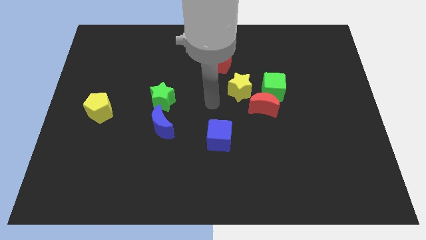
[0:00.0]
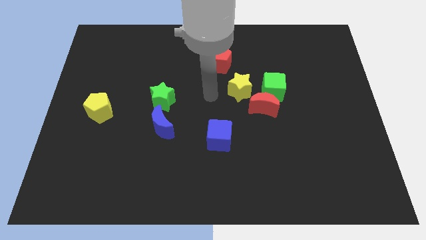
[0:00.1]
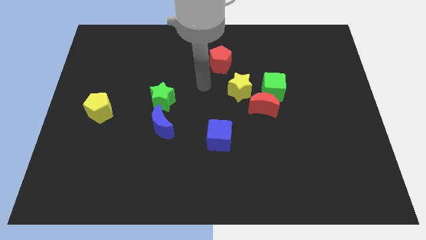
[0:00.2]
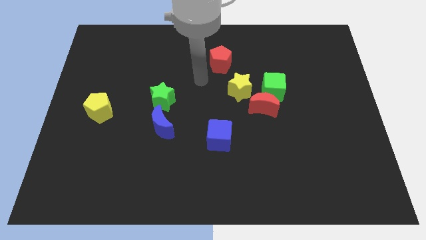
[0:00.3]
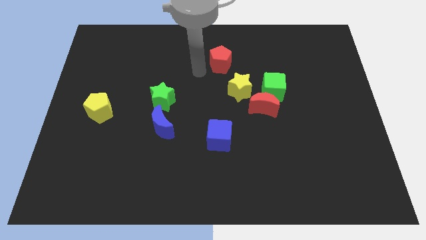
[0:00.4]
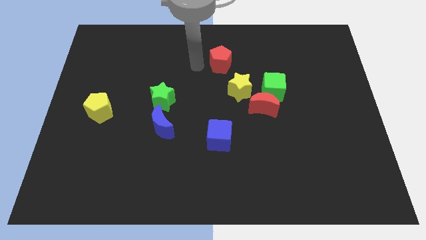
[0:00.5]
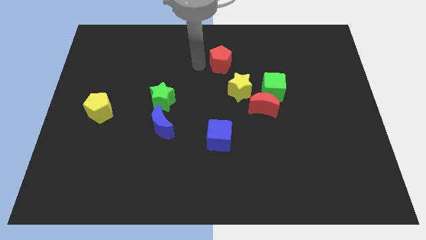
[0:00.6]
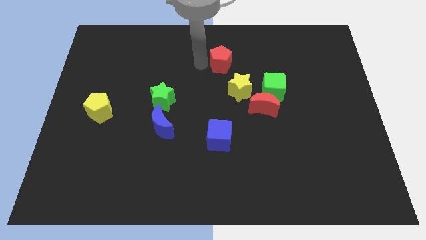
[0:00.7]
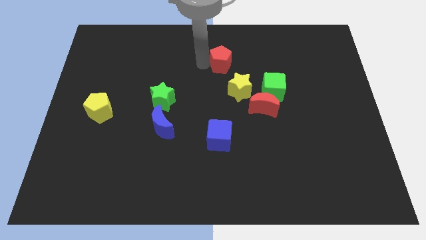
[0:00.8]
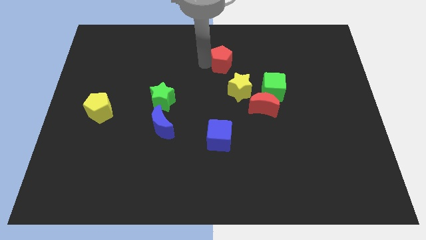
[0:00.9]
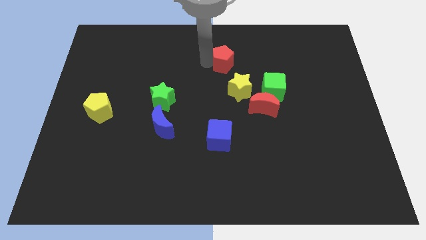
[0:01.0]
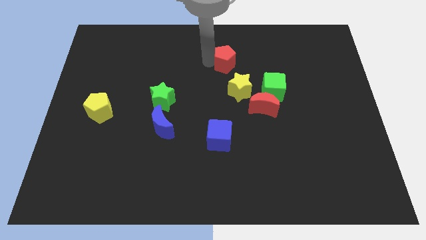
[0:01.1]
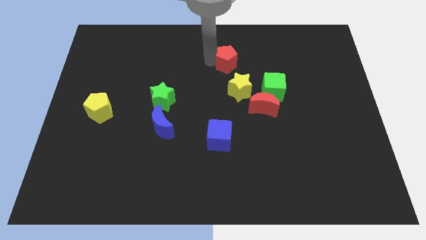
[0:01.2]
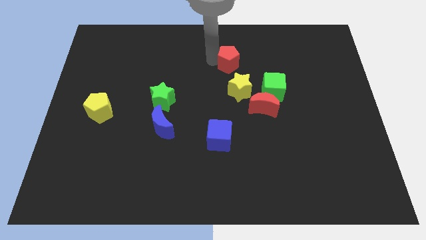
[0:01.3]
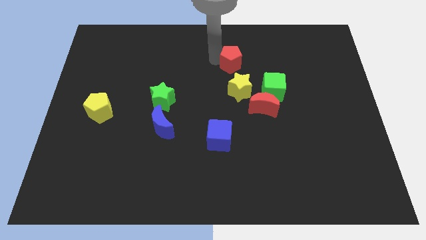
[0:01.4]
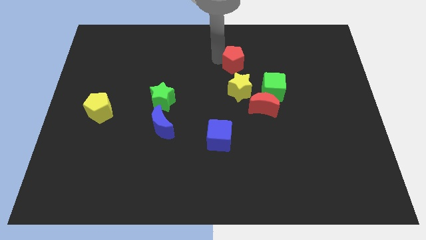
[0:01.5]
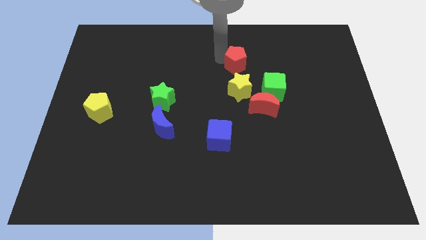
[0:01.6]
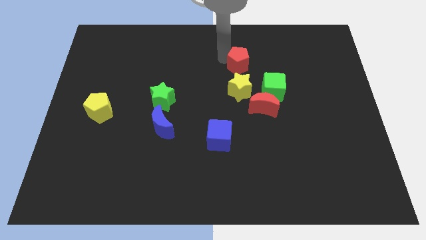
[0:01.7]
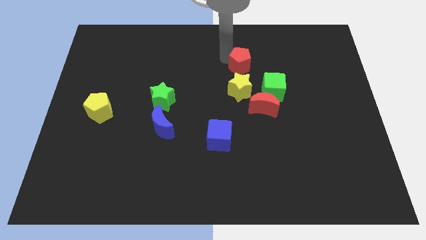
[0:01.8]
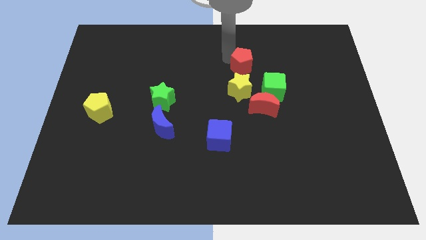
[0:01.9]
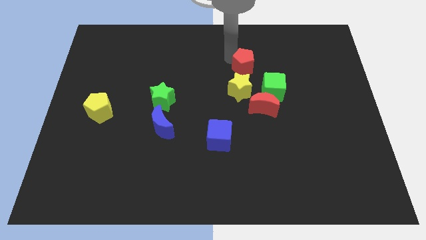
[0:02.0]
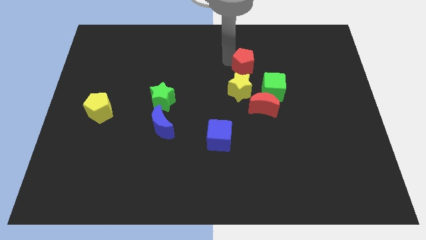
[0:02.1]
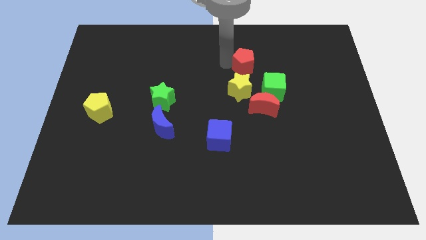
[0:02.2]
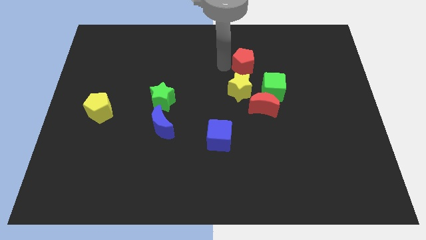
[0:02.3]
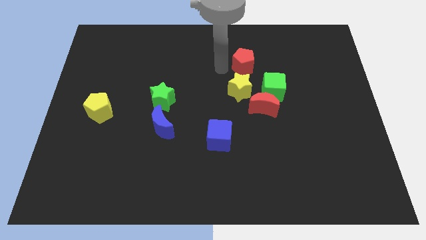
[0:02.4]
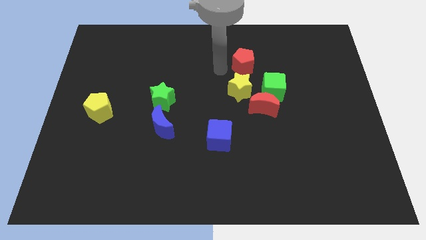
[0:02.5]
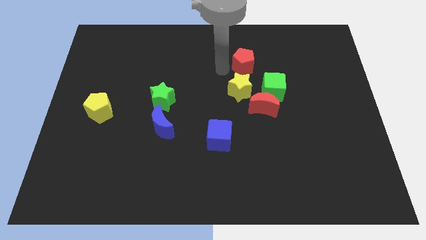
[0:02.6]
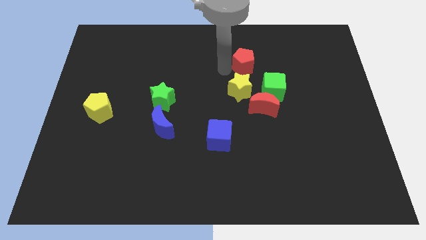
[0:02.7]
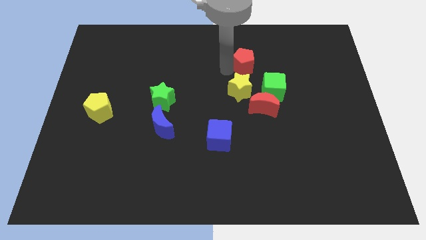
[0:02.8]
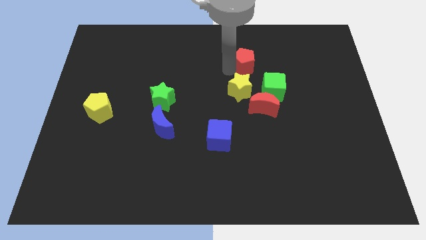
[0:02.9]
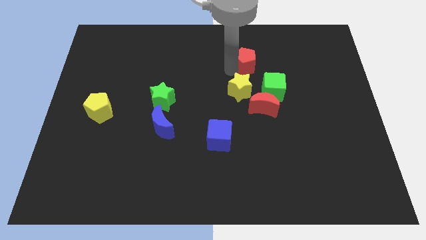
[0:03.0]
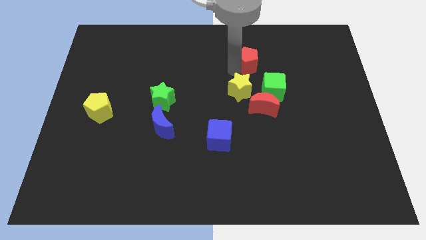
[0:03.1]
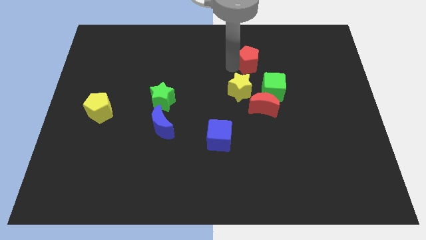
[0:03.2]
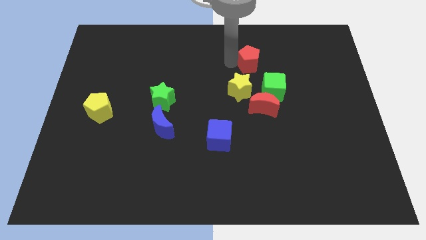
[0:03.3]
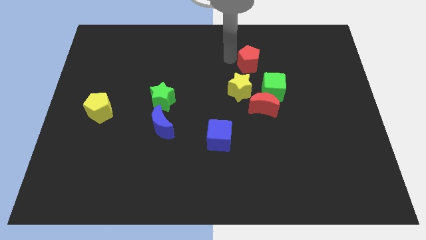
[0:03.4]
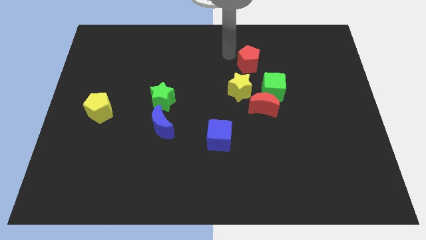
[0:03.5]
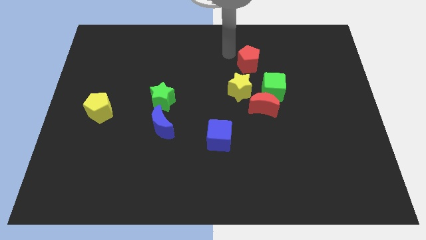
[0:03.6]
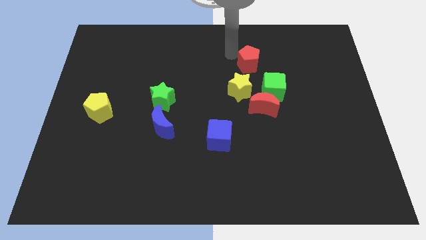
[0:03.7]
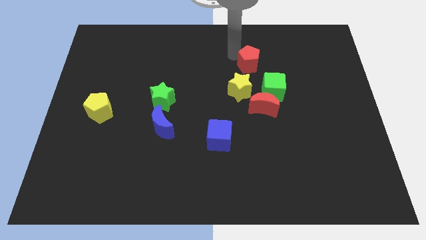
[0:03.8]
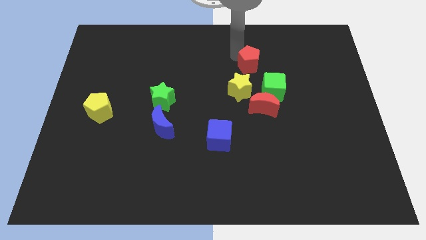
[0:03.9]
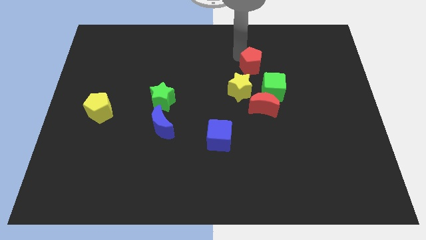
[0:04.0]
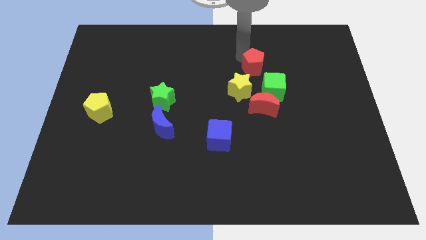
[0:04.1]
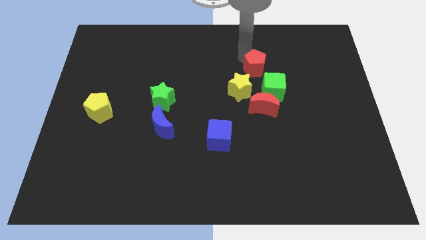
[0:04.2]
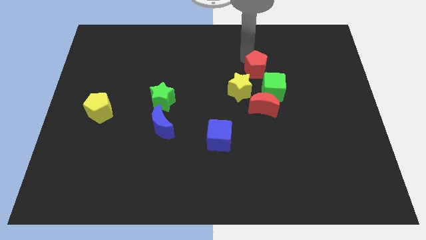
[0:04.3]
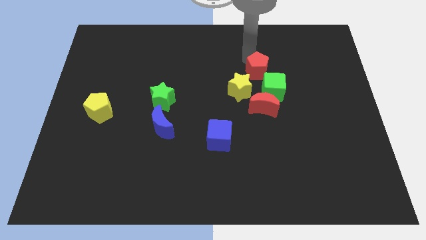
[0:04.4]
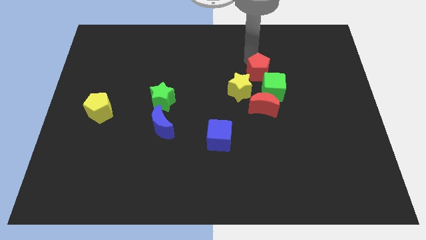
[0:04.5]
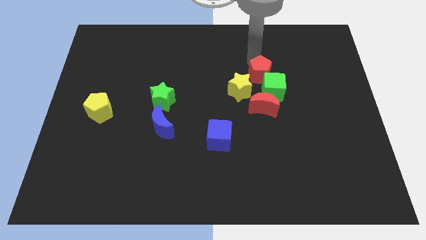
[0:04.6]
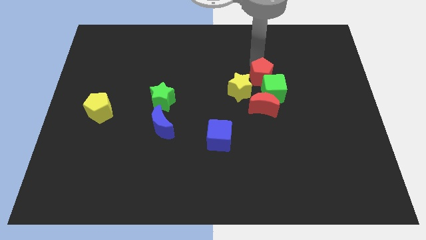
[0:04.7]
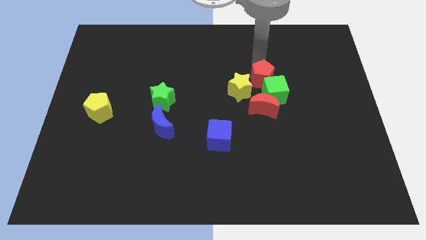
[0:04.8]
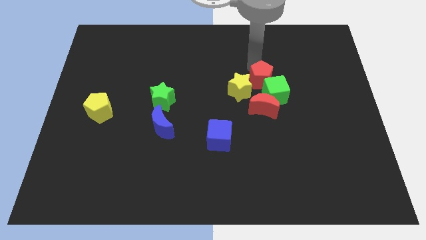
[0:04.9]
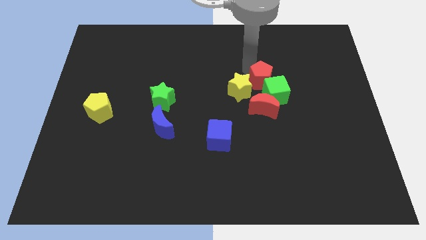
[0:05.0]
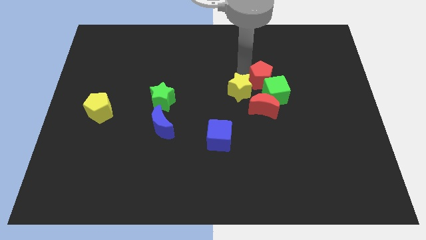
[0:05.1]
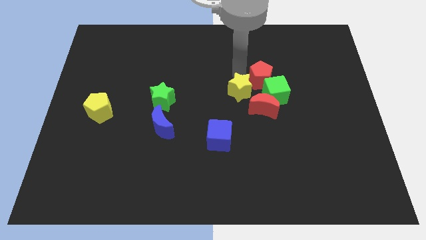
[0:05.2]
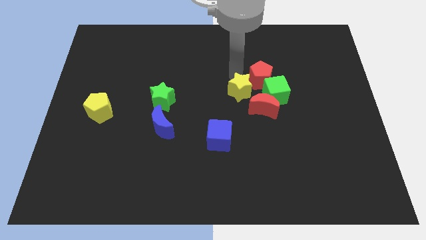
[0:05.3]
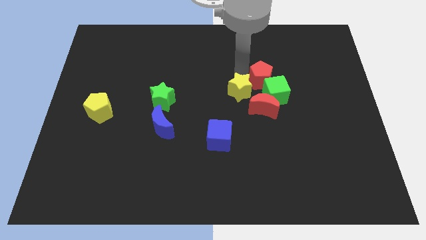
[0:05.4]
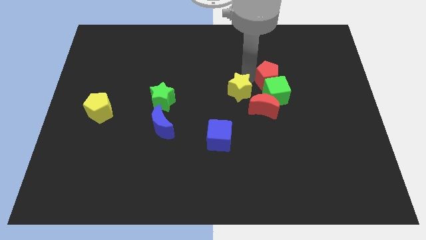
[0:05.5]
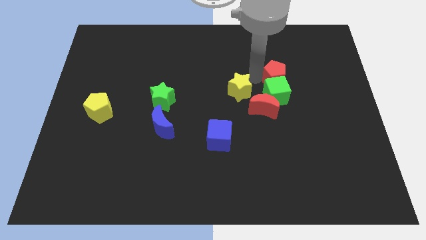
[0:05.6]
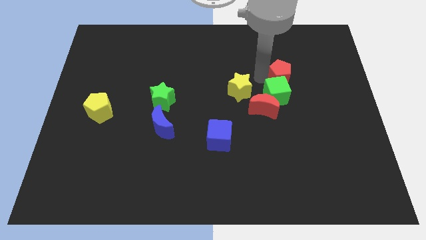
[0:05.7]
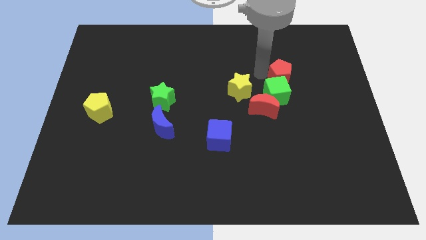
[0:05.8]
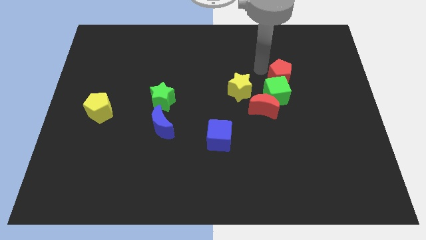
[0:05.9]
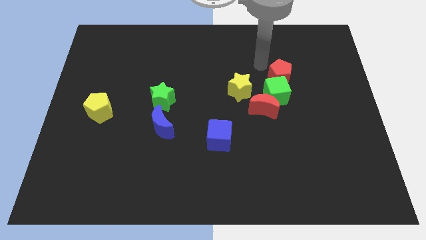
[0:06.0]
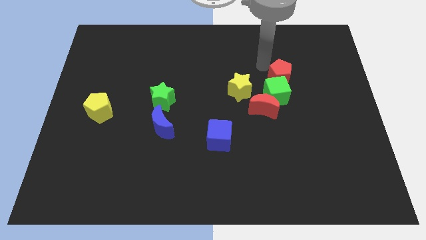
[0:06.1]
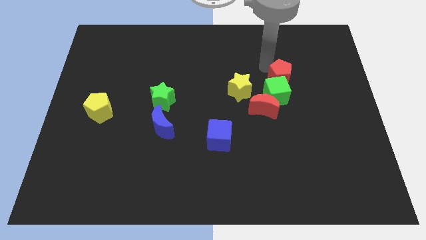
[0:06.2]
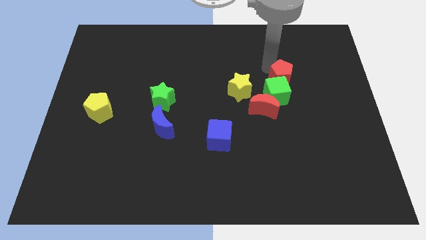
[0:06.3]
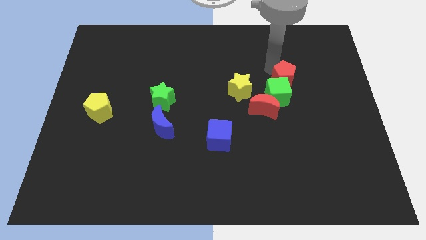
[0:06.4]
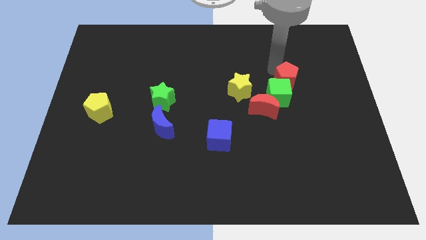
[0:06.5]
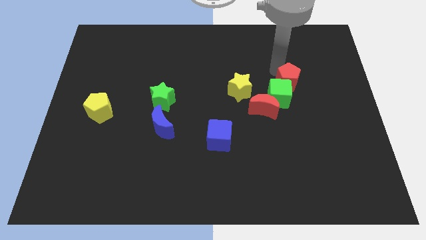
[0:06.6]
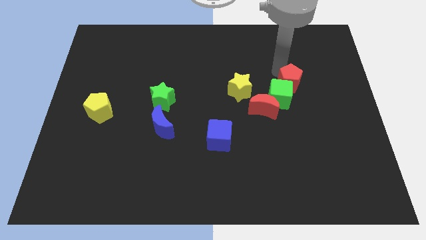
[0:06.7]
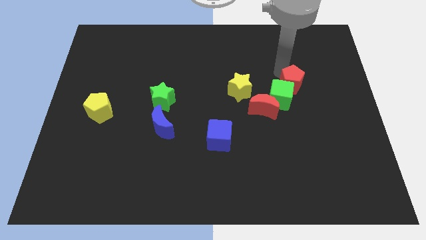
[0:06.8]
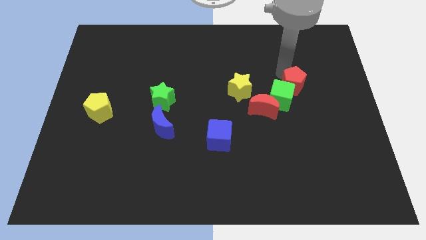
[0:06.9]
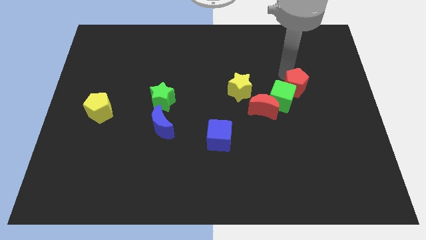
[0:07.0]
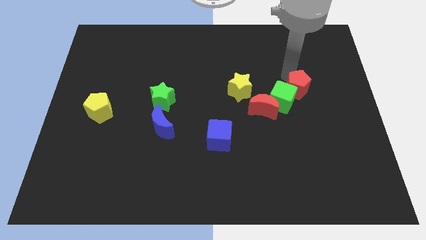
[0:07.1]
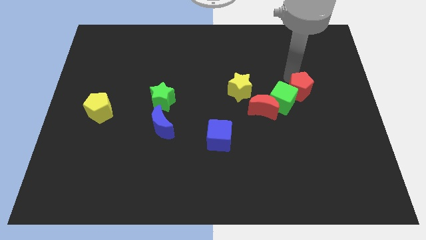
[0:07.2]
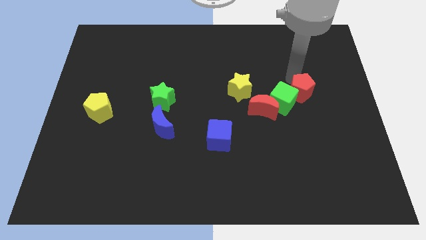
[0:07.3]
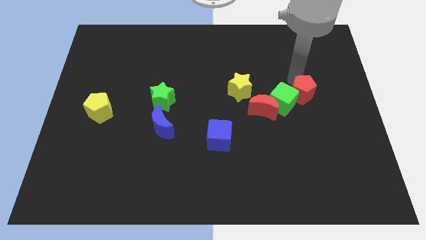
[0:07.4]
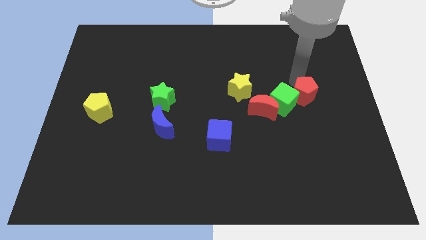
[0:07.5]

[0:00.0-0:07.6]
slide the red pentagon diagonally down and right

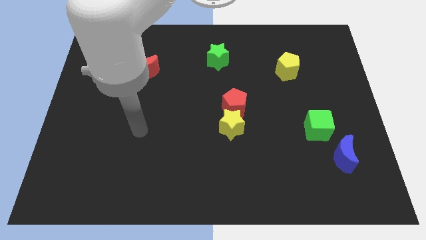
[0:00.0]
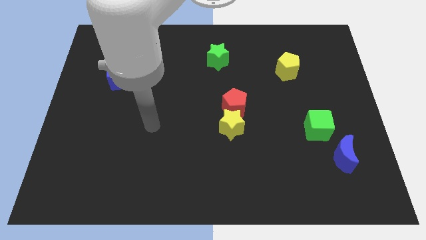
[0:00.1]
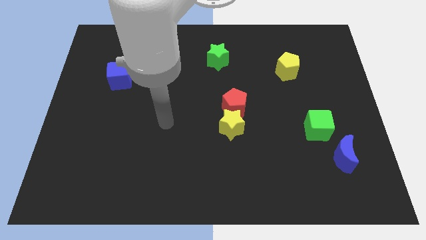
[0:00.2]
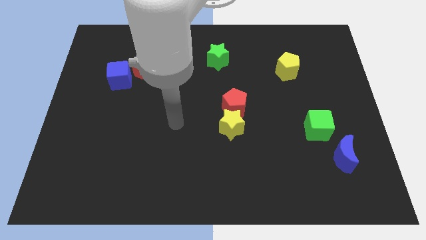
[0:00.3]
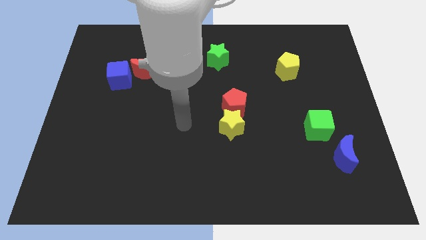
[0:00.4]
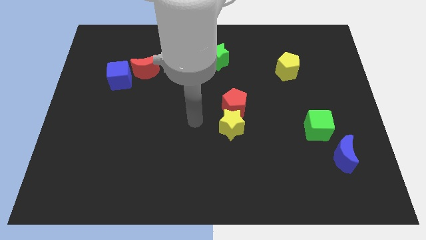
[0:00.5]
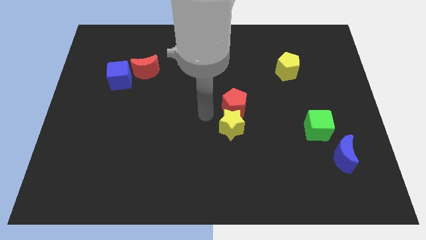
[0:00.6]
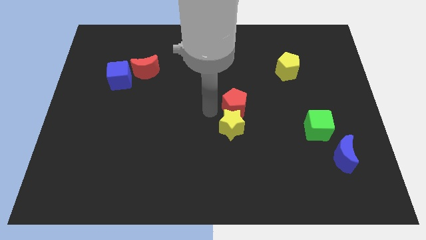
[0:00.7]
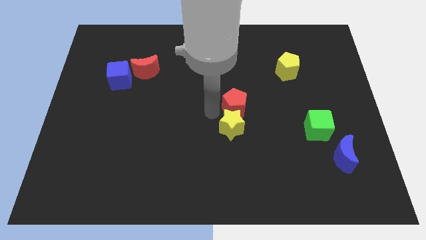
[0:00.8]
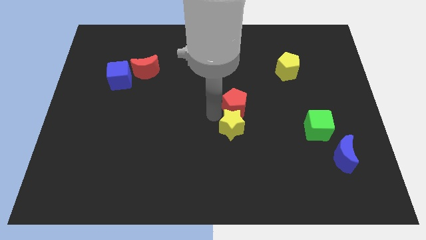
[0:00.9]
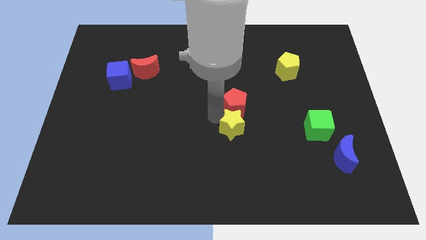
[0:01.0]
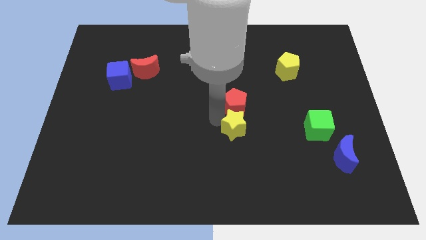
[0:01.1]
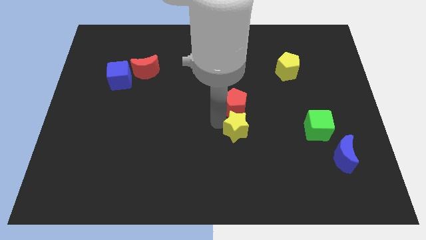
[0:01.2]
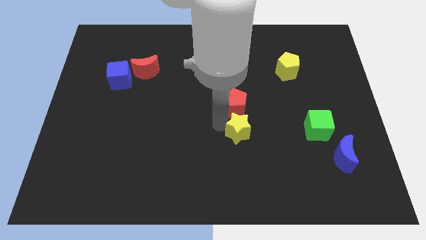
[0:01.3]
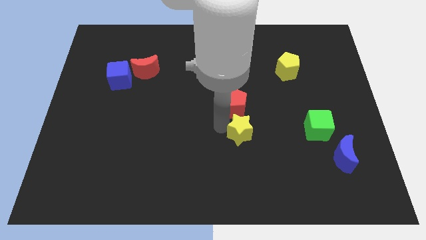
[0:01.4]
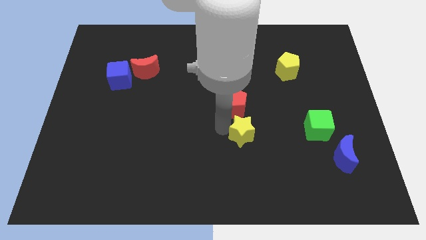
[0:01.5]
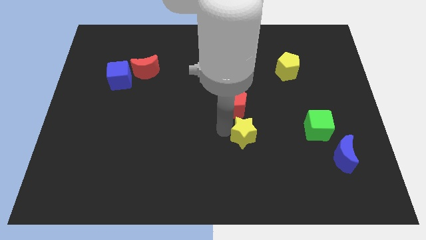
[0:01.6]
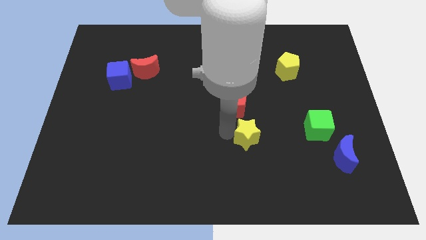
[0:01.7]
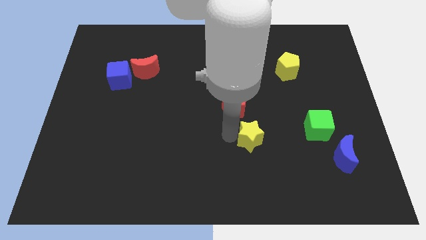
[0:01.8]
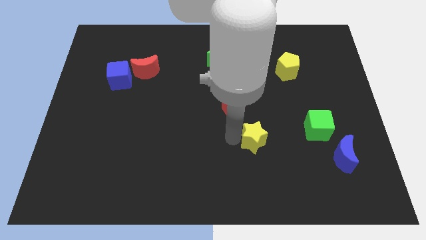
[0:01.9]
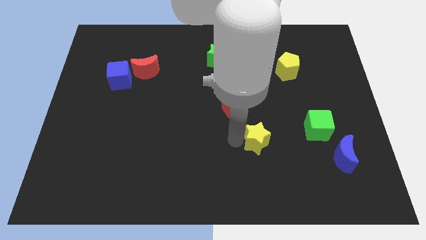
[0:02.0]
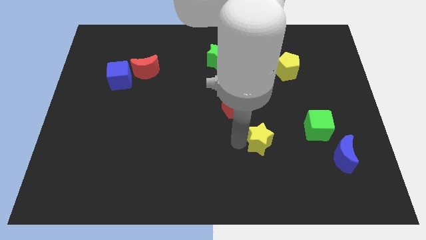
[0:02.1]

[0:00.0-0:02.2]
move the yellow star down and to the right a bit
